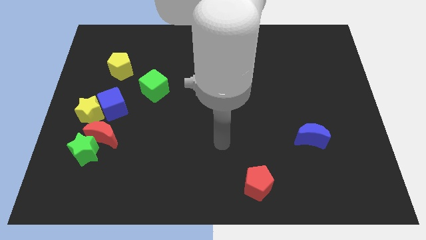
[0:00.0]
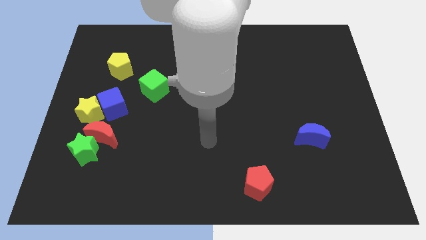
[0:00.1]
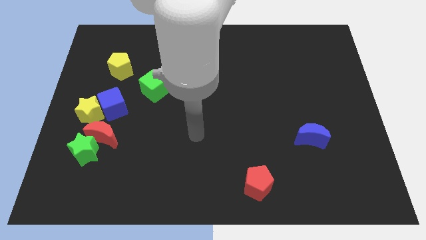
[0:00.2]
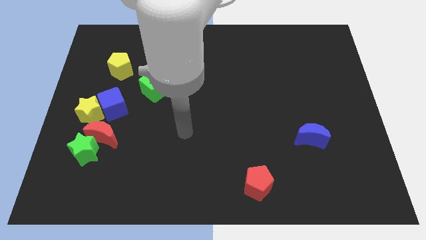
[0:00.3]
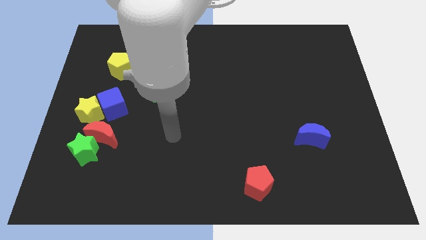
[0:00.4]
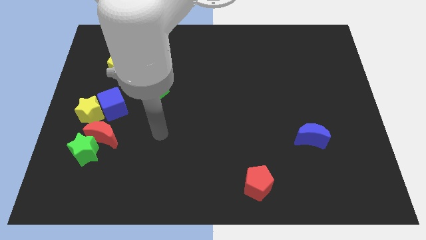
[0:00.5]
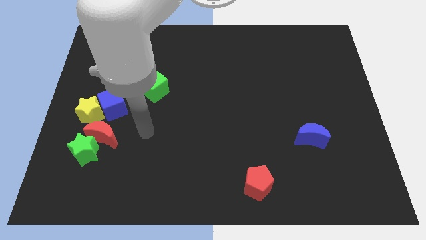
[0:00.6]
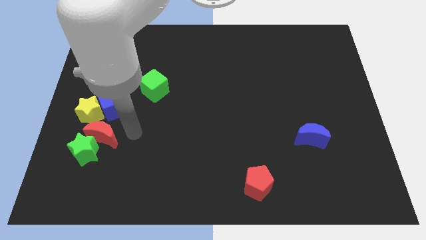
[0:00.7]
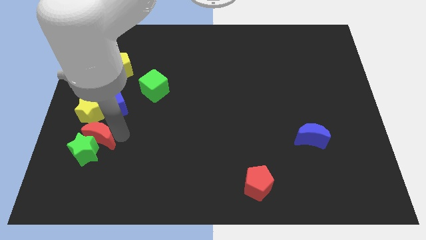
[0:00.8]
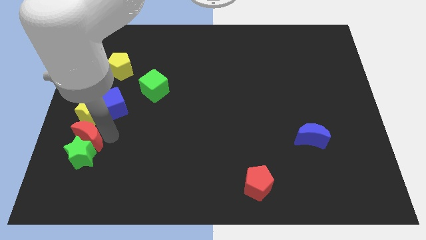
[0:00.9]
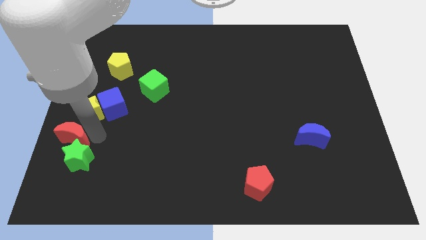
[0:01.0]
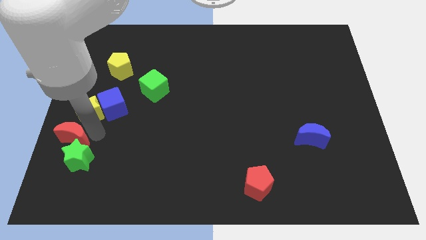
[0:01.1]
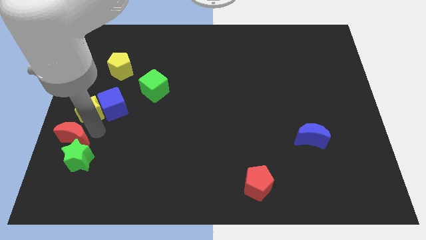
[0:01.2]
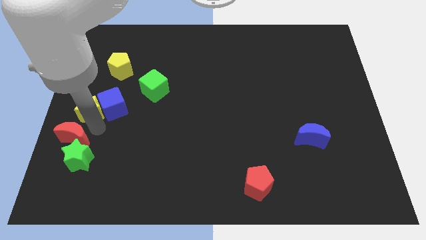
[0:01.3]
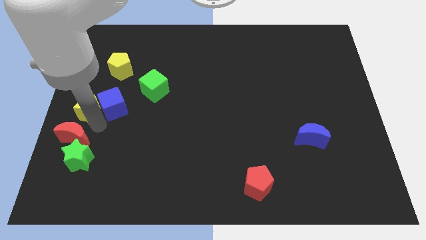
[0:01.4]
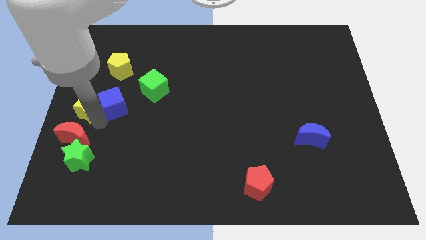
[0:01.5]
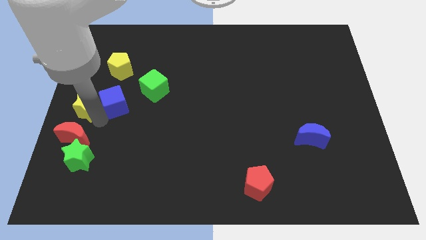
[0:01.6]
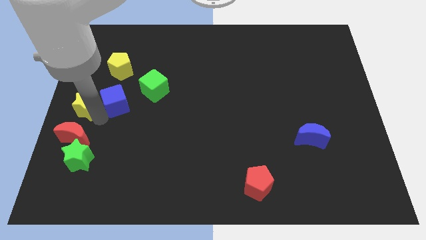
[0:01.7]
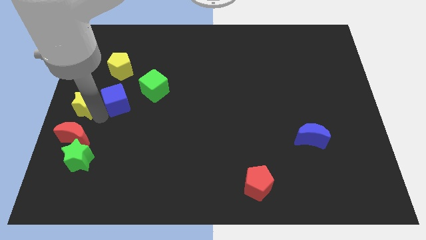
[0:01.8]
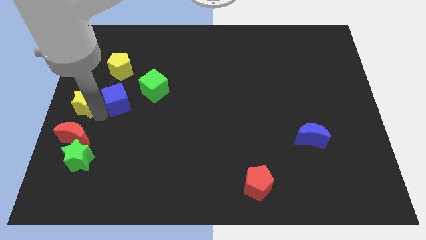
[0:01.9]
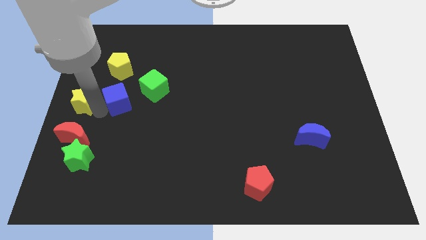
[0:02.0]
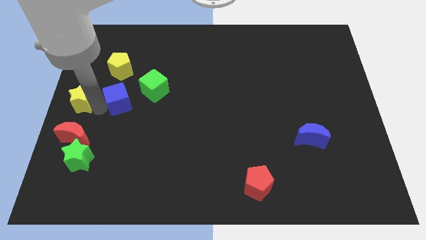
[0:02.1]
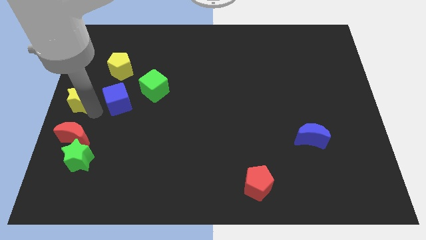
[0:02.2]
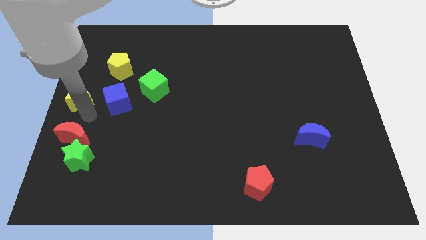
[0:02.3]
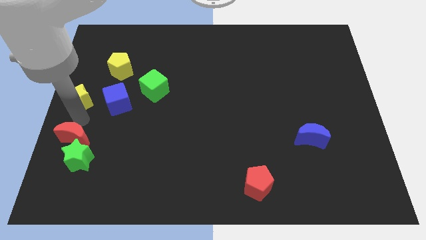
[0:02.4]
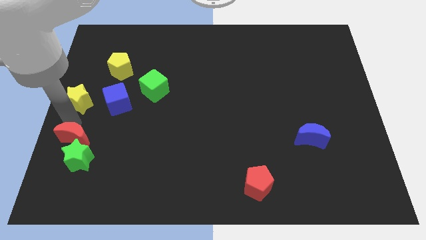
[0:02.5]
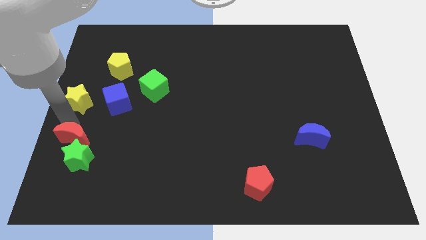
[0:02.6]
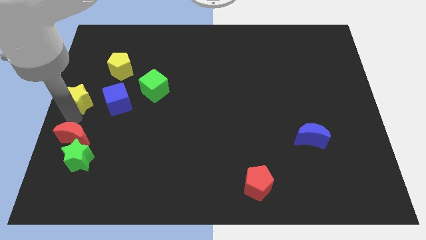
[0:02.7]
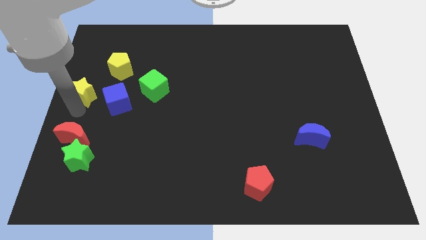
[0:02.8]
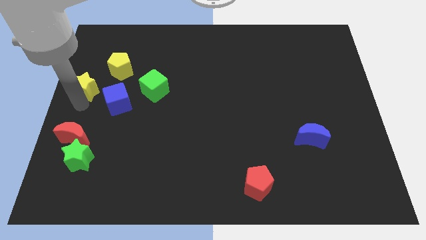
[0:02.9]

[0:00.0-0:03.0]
slightly move the yellow star up

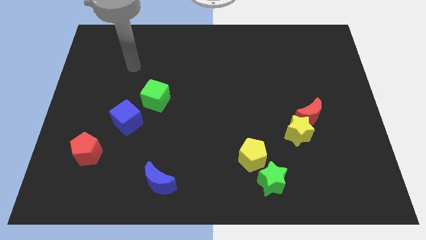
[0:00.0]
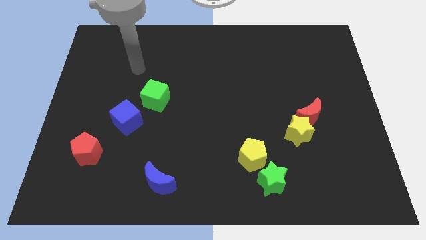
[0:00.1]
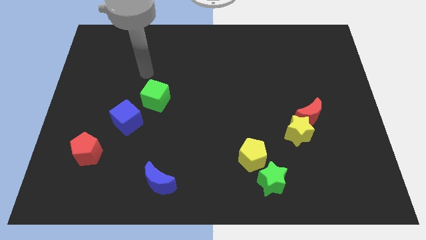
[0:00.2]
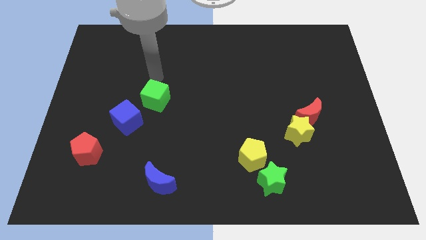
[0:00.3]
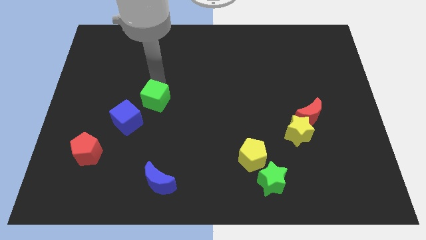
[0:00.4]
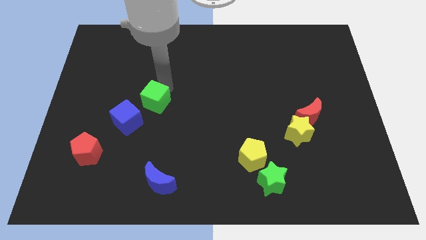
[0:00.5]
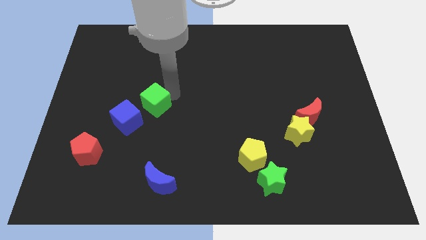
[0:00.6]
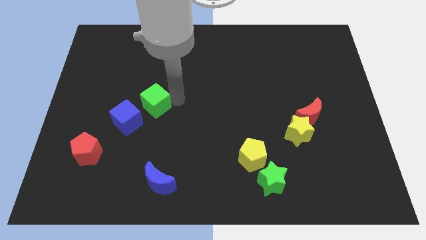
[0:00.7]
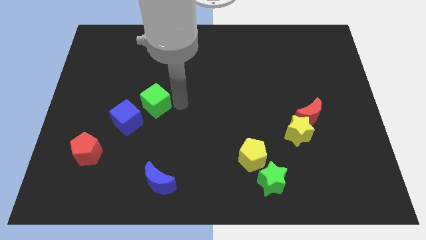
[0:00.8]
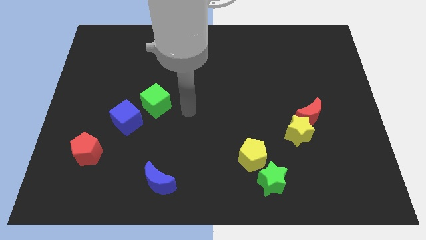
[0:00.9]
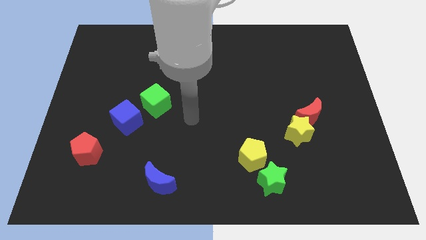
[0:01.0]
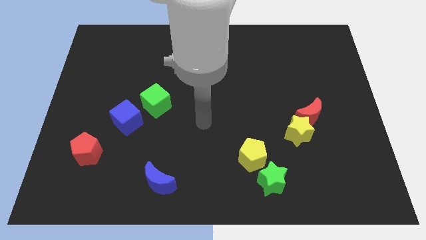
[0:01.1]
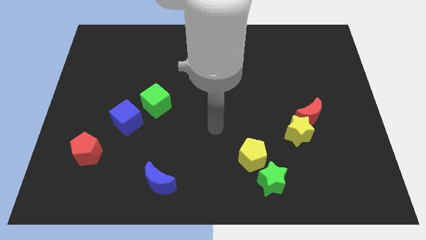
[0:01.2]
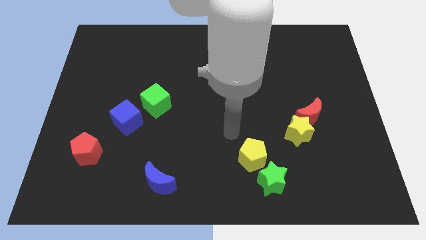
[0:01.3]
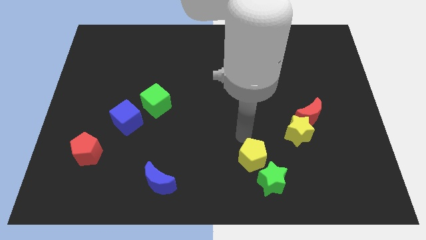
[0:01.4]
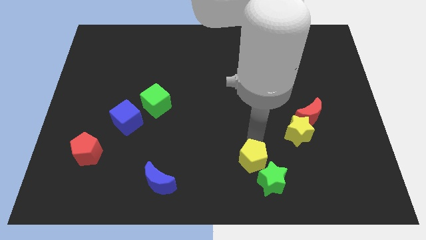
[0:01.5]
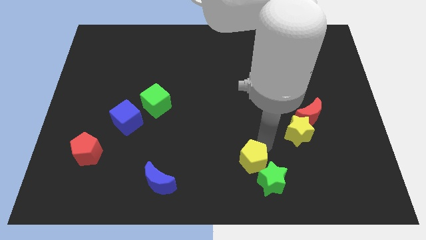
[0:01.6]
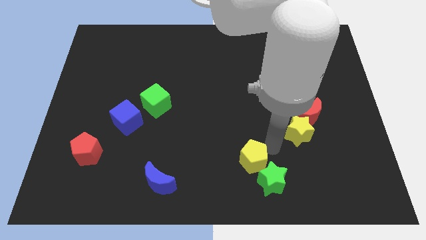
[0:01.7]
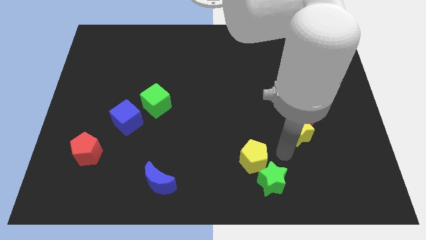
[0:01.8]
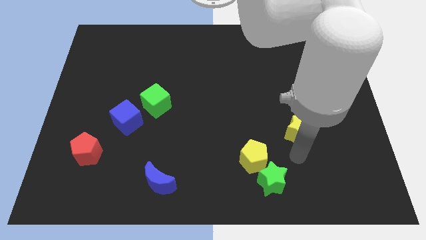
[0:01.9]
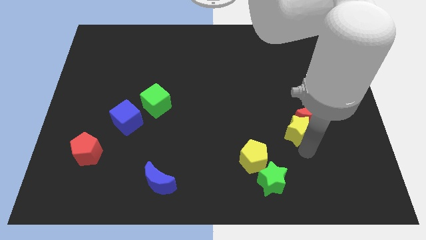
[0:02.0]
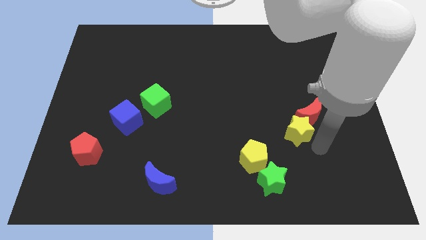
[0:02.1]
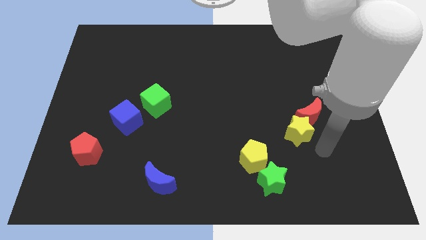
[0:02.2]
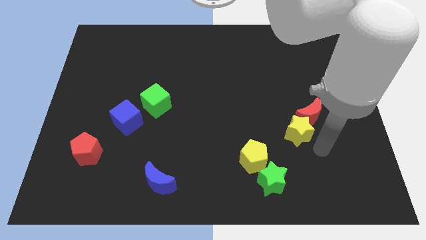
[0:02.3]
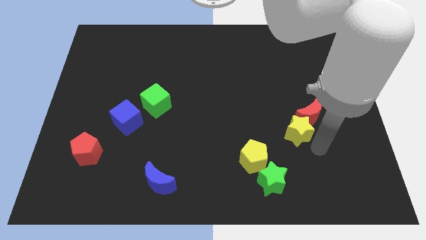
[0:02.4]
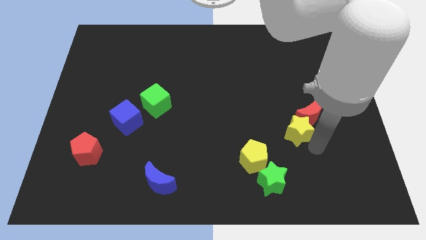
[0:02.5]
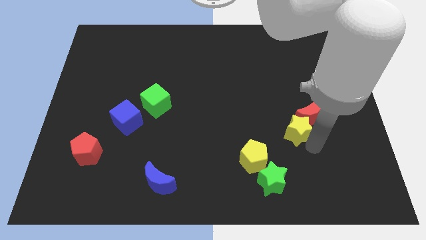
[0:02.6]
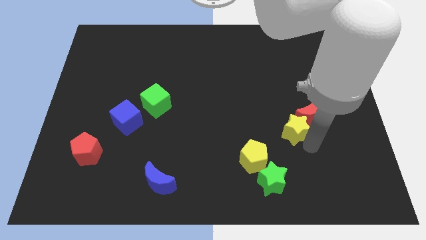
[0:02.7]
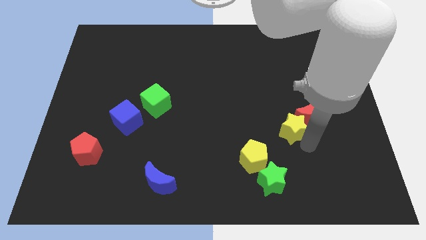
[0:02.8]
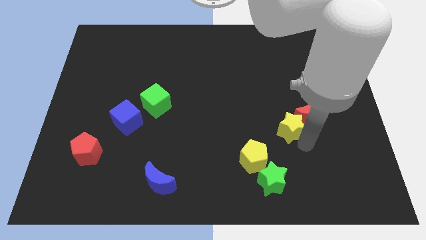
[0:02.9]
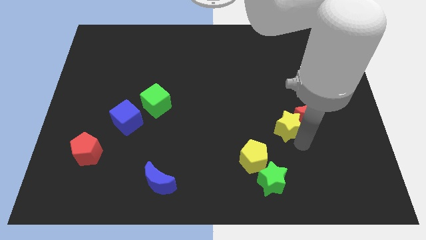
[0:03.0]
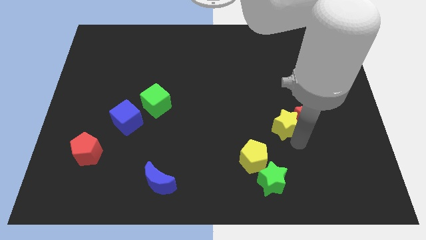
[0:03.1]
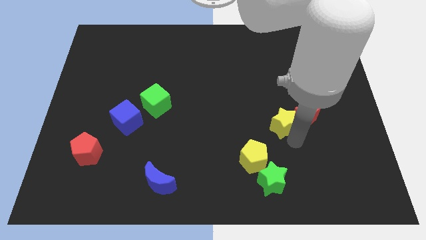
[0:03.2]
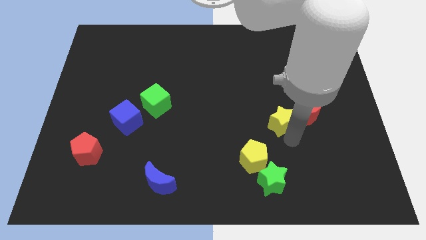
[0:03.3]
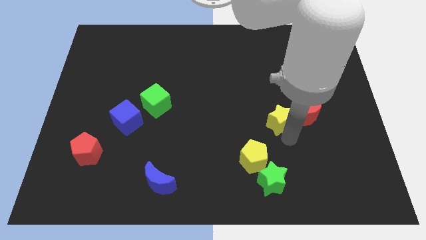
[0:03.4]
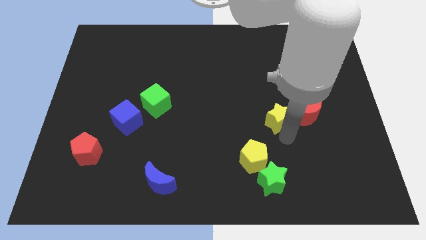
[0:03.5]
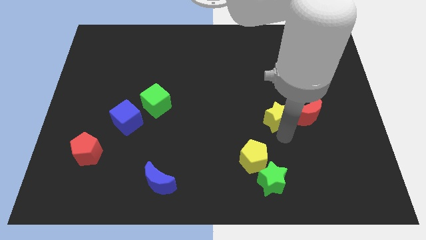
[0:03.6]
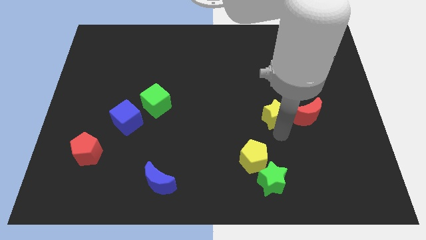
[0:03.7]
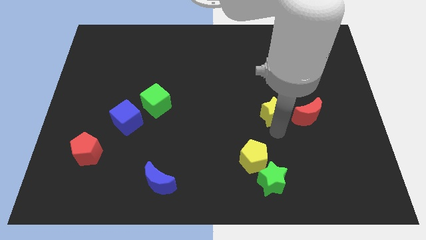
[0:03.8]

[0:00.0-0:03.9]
slide the yellow star a little upwards and left diagonally

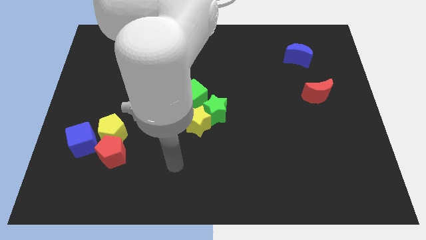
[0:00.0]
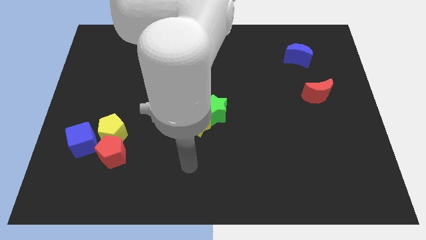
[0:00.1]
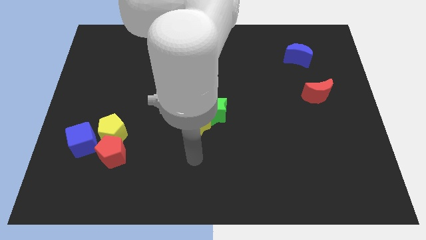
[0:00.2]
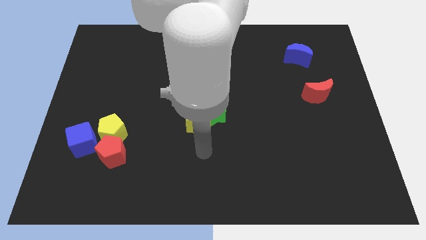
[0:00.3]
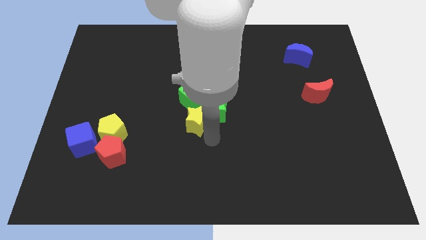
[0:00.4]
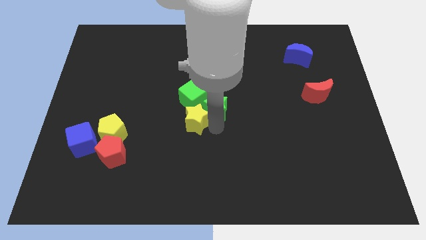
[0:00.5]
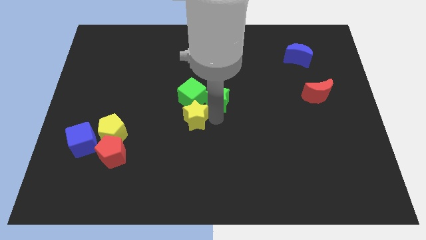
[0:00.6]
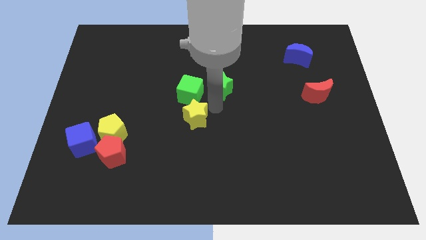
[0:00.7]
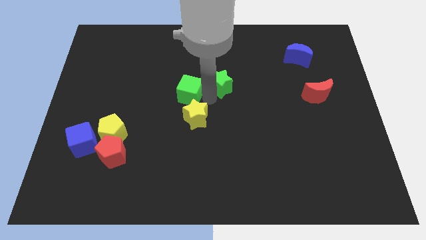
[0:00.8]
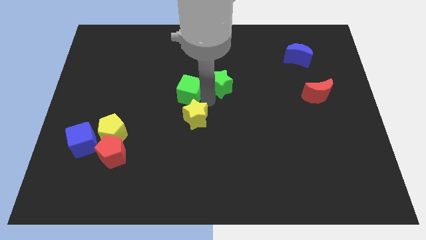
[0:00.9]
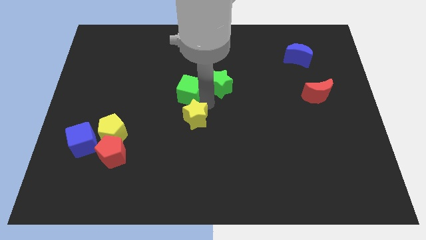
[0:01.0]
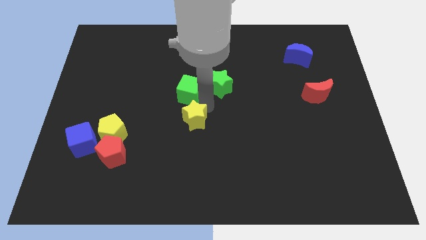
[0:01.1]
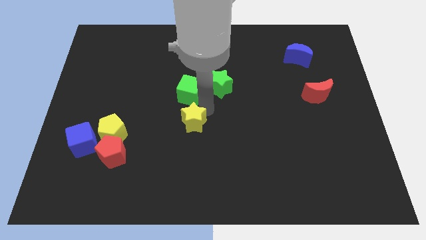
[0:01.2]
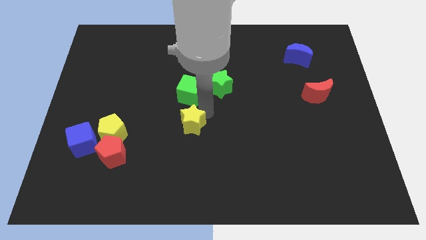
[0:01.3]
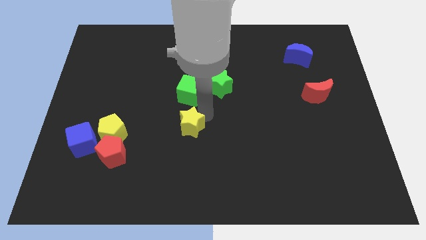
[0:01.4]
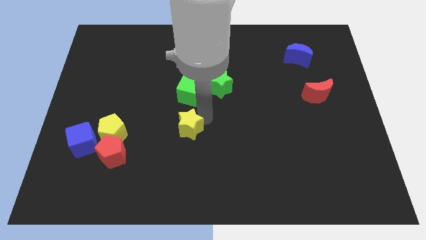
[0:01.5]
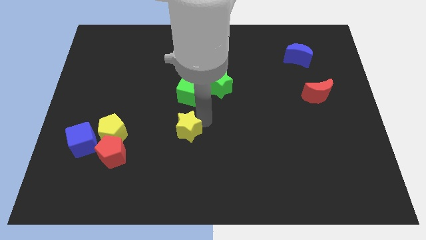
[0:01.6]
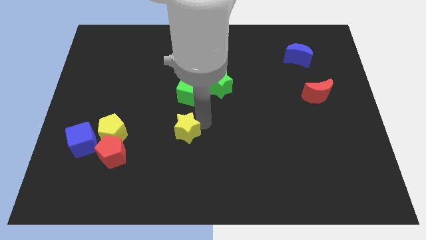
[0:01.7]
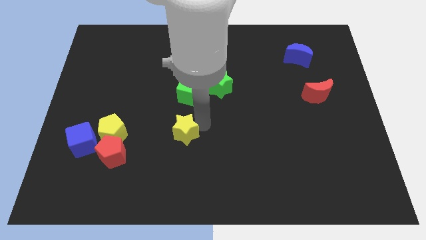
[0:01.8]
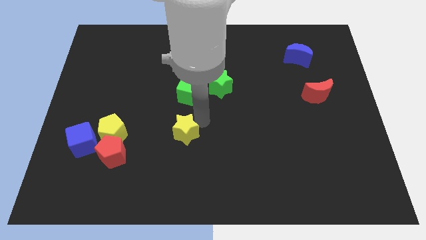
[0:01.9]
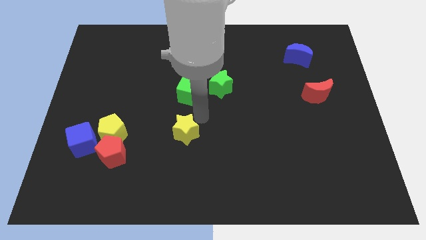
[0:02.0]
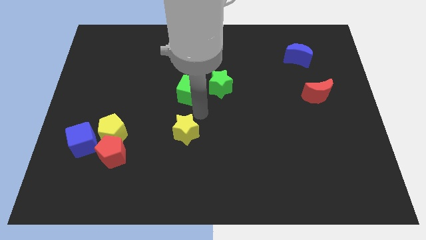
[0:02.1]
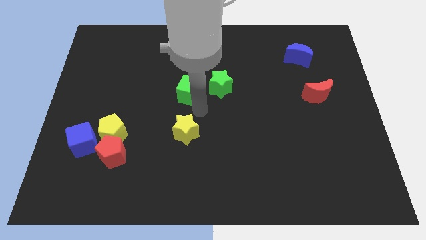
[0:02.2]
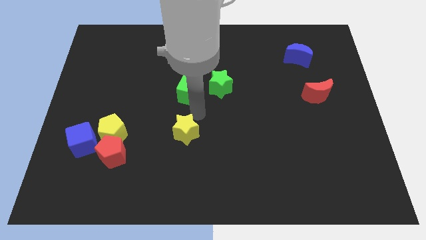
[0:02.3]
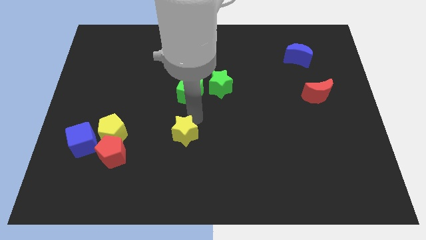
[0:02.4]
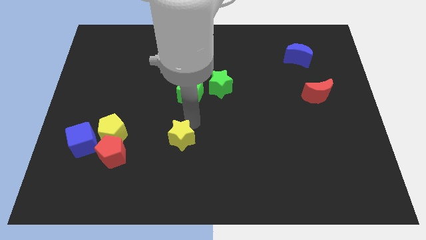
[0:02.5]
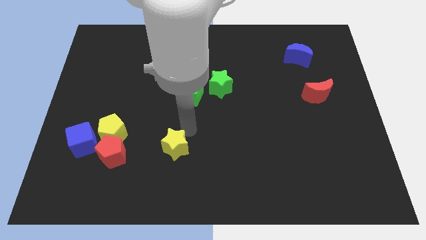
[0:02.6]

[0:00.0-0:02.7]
slide the yellow star somewhat diagonally down and left
